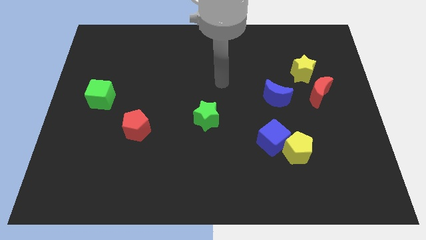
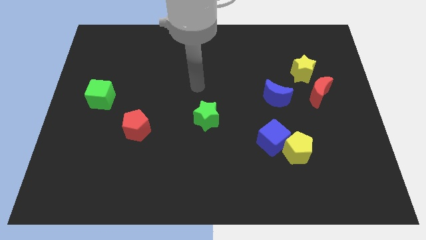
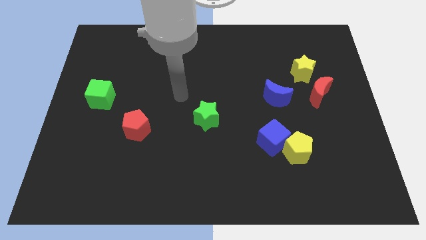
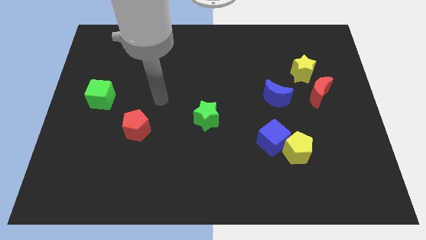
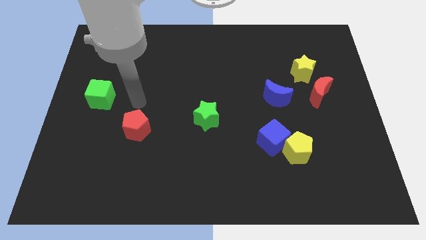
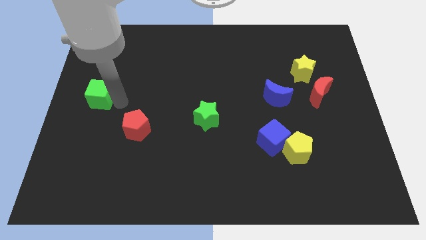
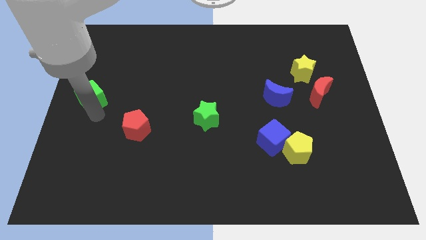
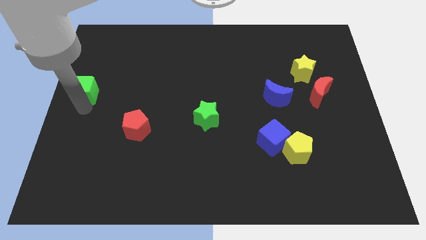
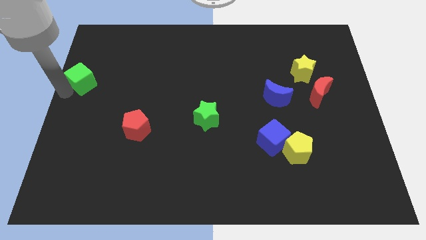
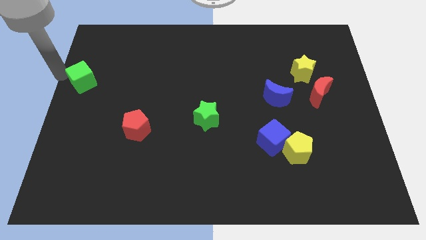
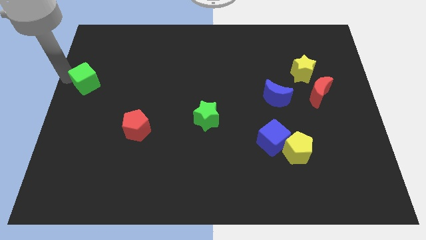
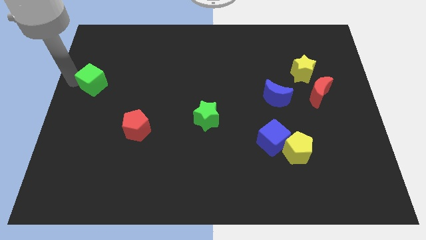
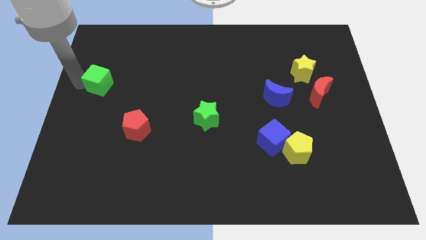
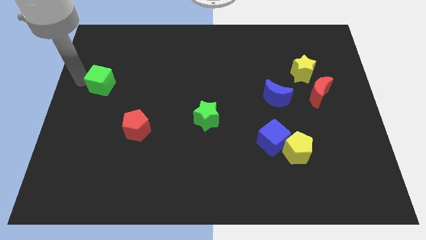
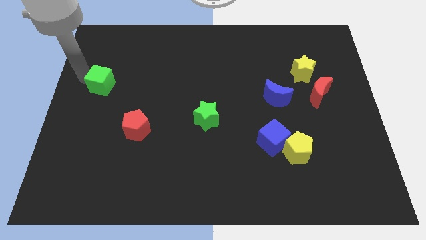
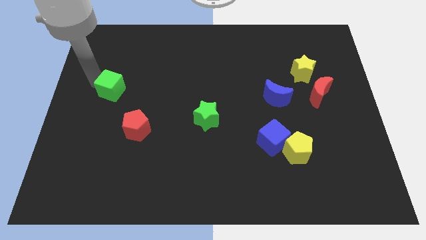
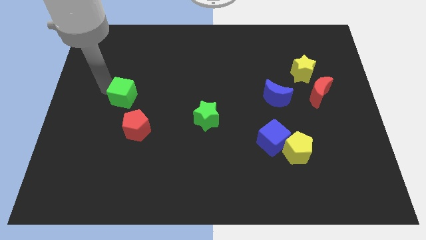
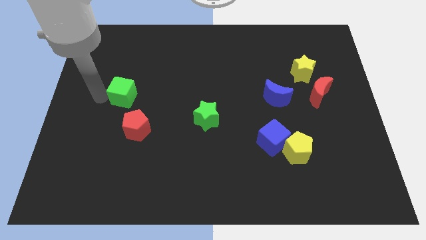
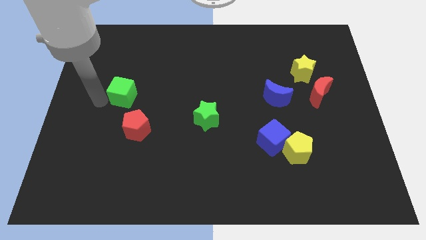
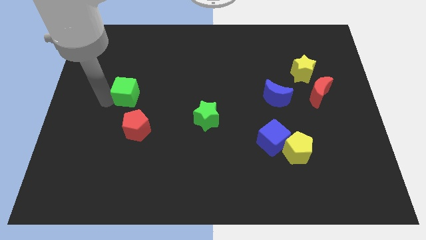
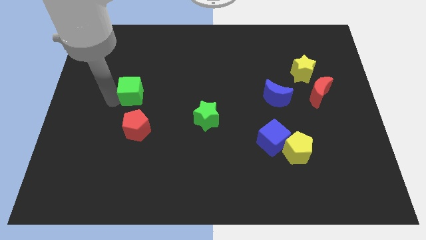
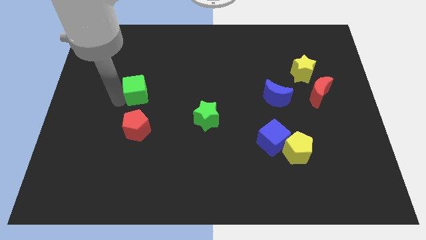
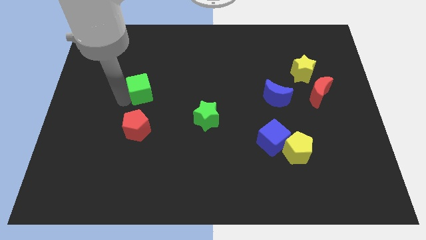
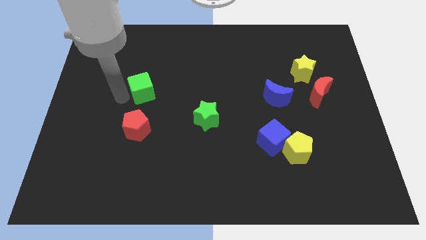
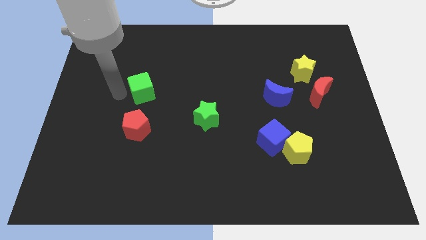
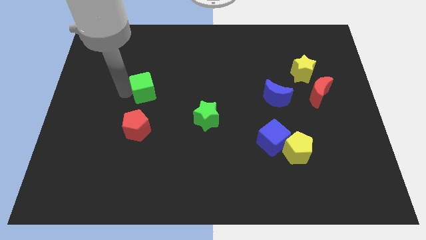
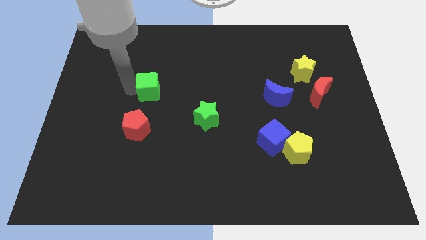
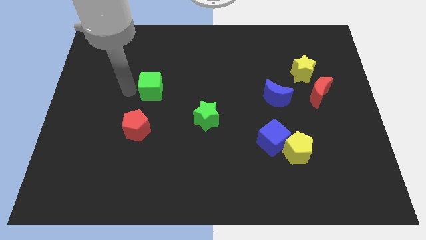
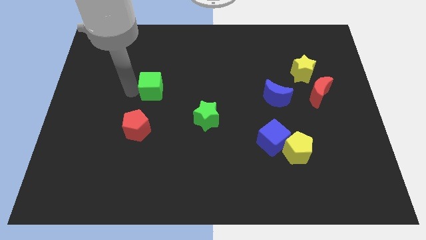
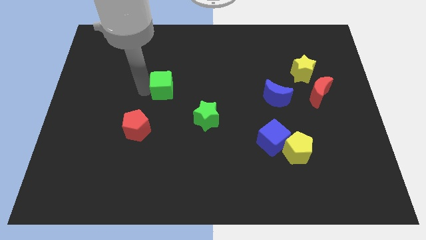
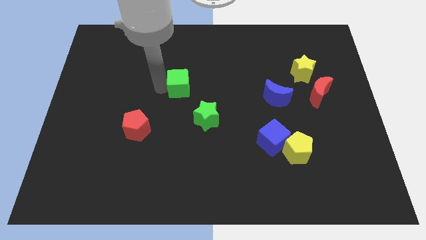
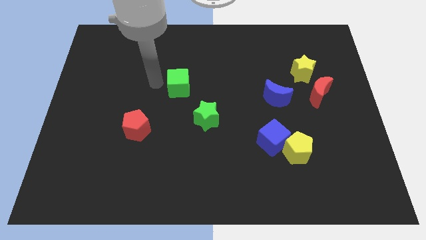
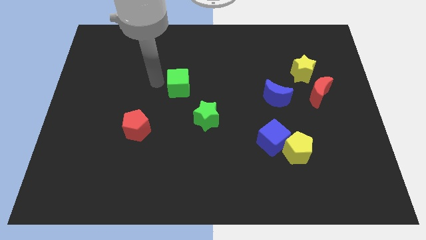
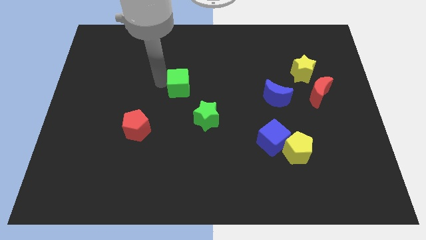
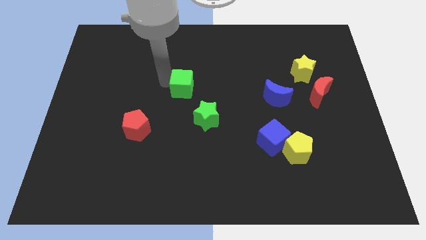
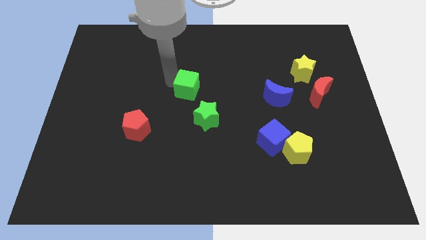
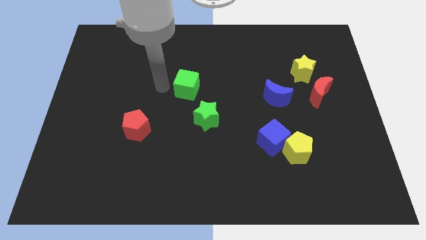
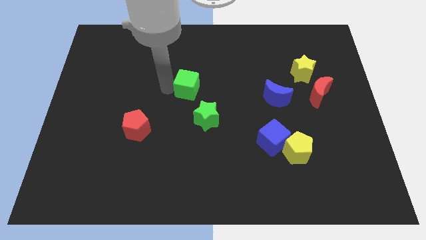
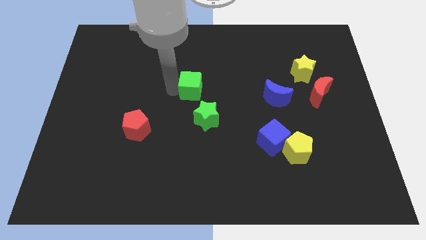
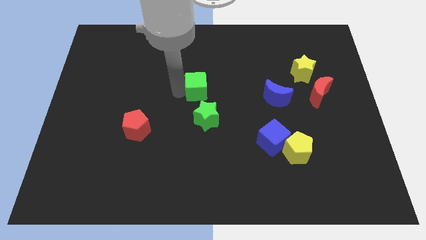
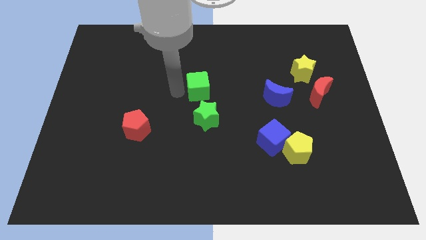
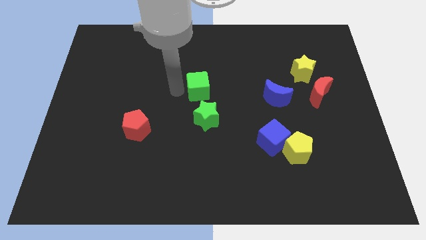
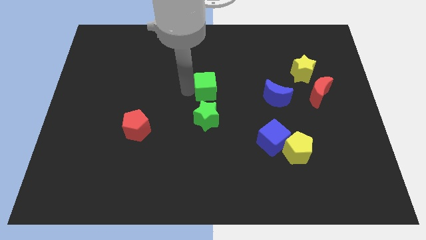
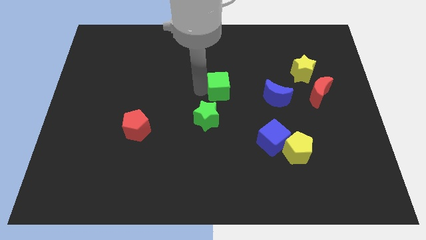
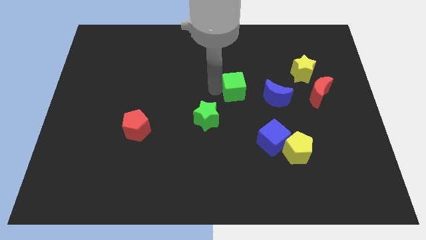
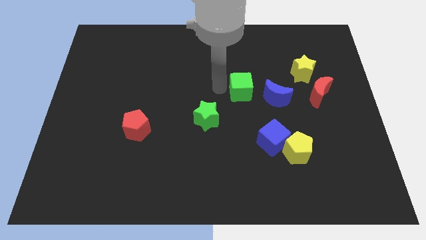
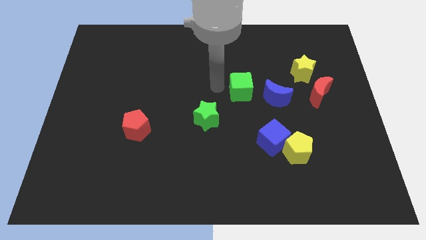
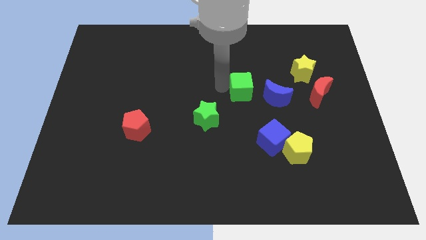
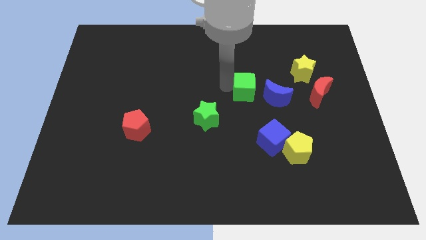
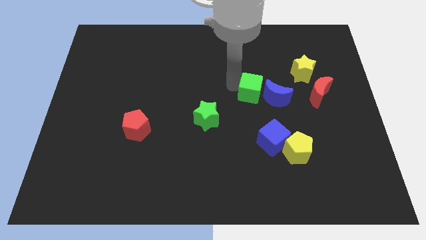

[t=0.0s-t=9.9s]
push the green cube towards the blue moon

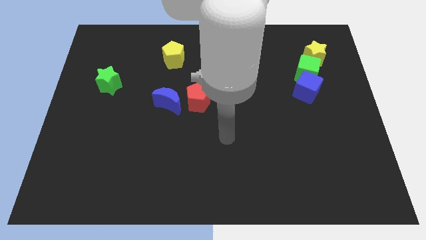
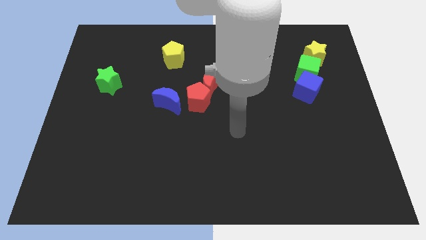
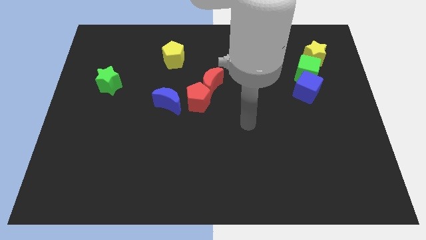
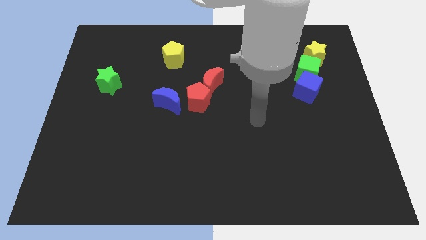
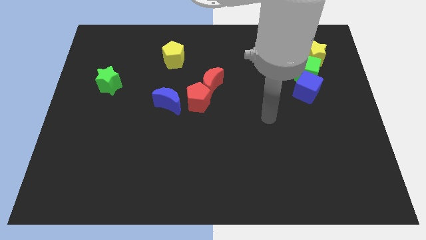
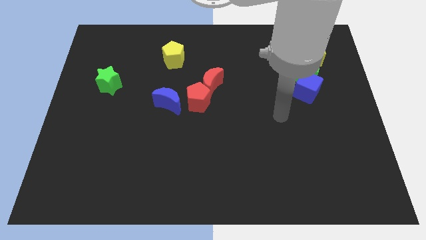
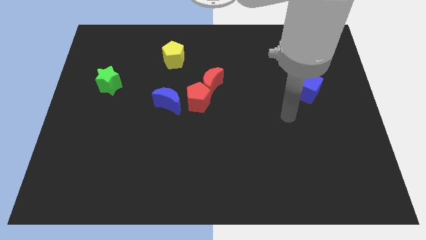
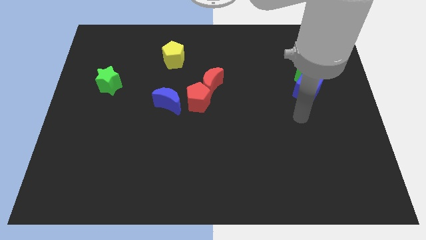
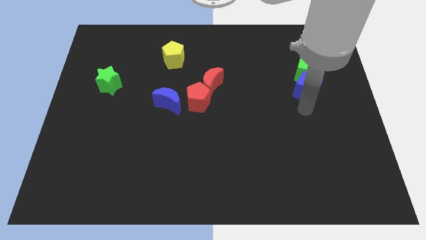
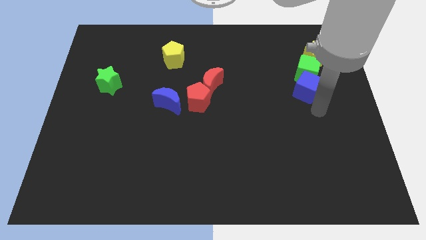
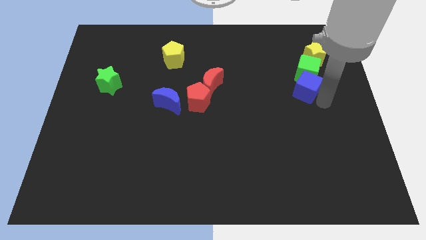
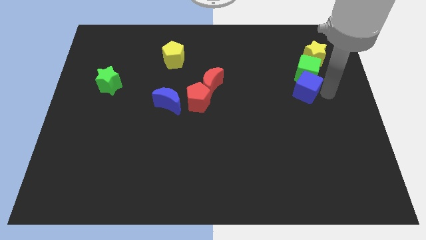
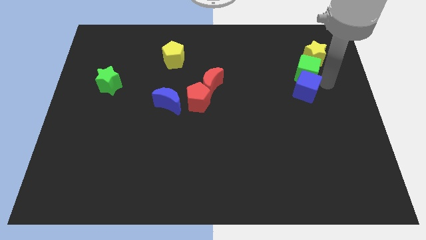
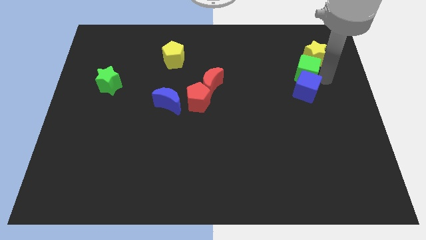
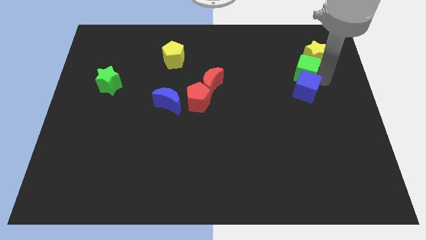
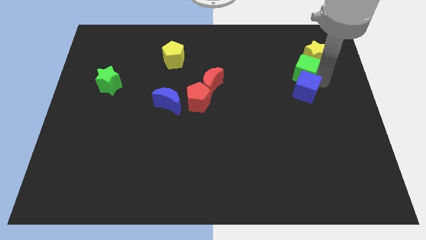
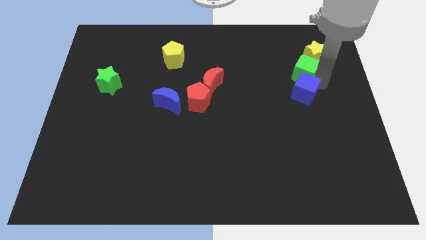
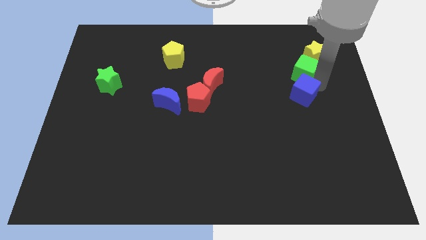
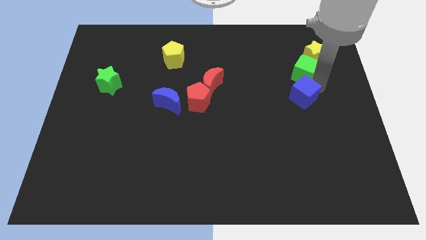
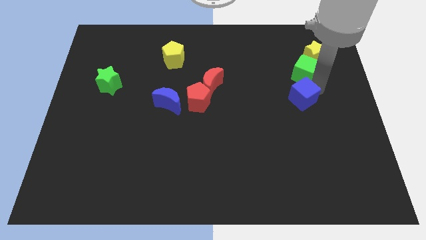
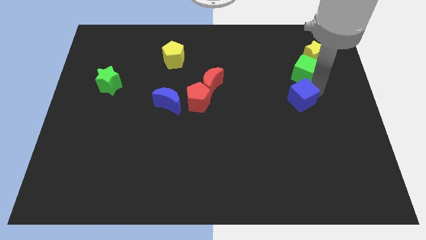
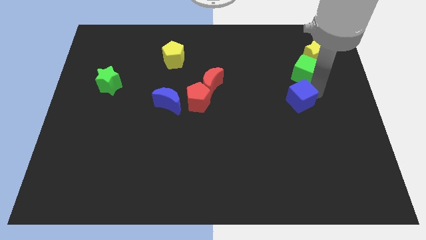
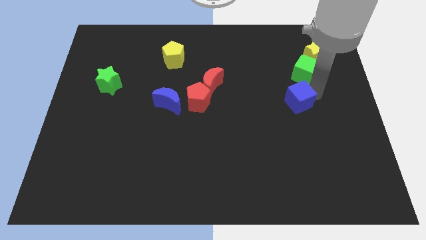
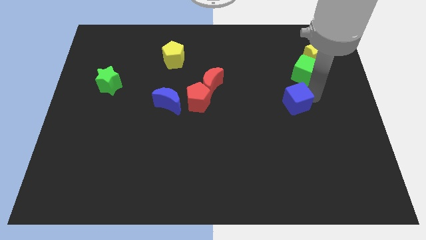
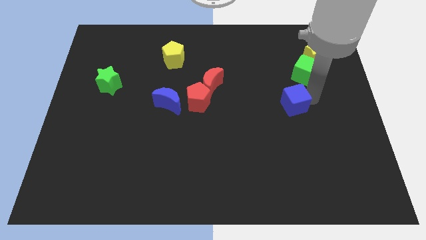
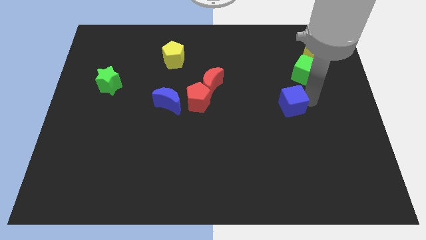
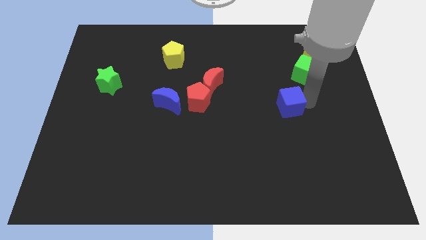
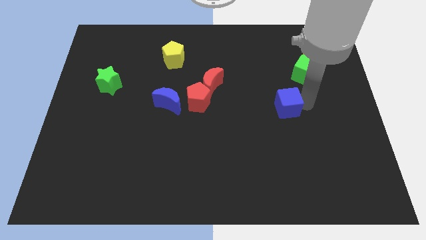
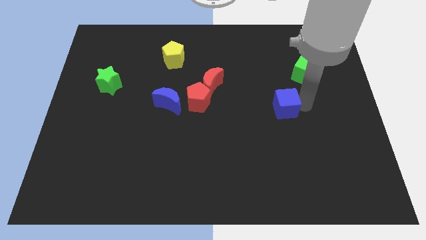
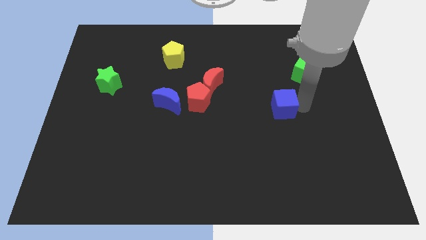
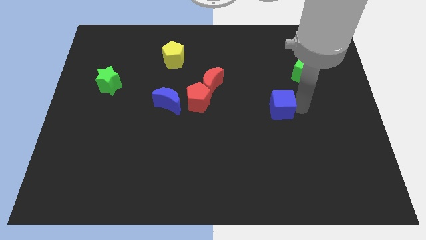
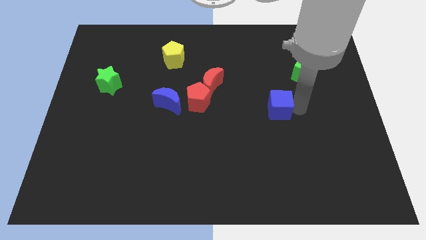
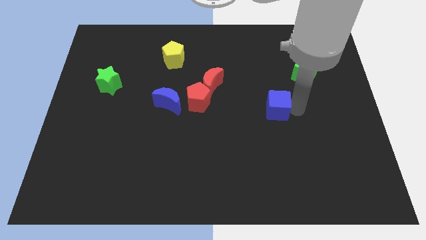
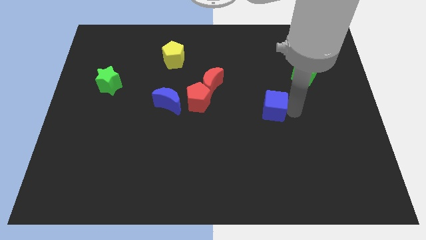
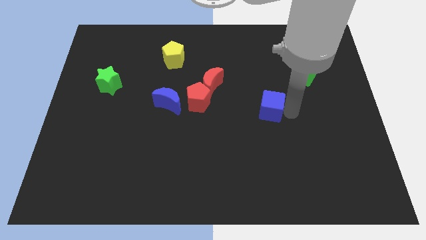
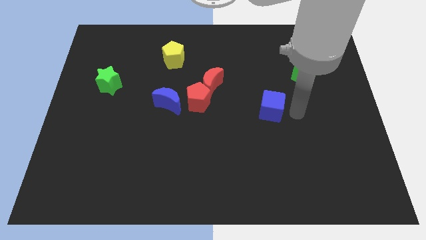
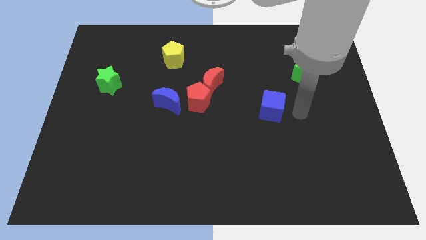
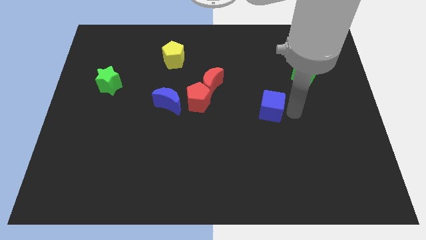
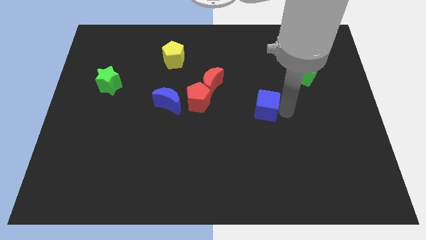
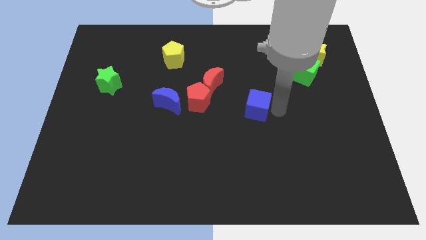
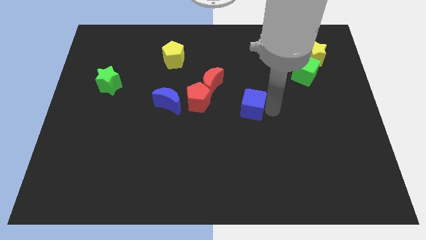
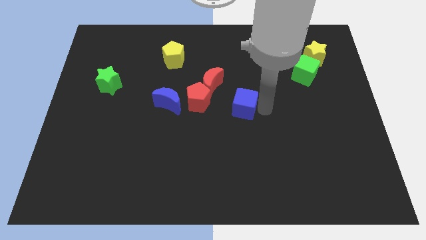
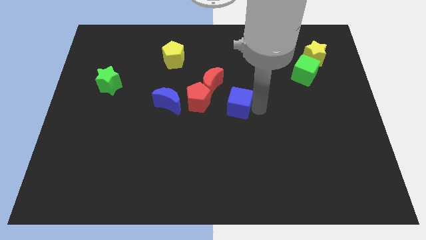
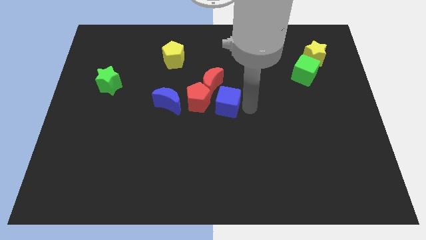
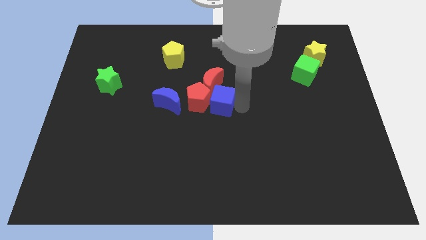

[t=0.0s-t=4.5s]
push the blue cube to the red pentagon
